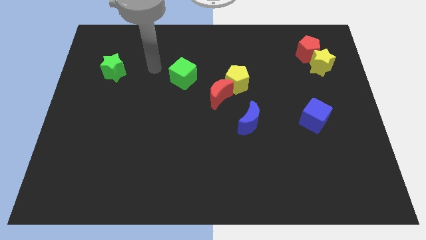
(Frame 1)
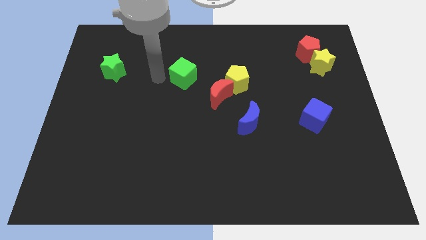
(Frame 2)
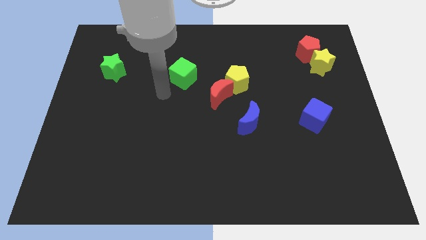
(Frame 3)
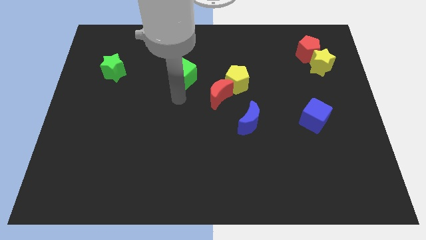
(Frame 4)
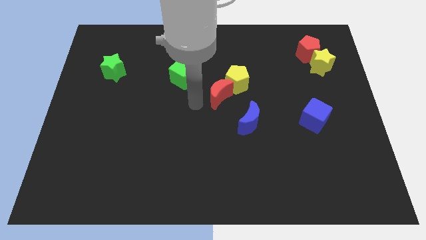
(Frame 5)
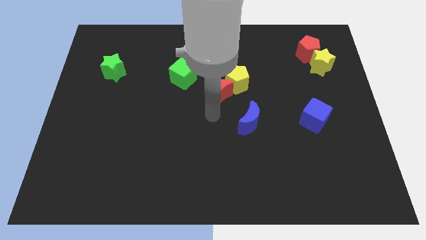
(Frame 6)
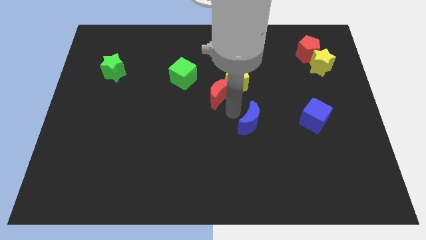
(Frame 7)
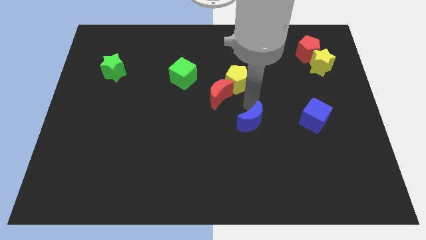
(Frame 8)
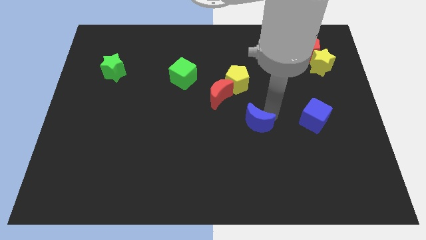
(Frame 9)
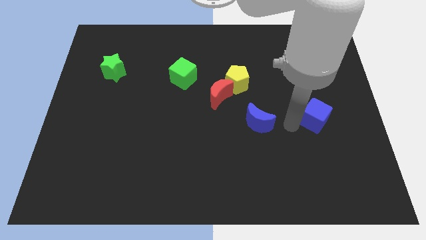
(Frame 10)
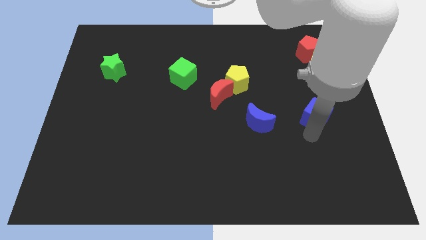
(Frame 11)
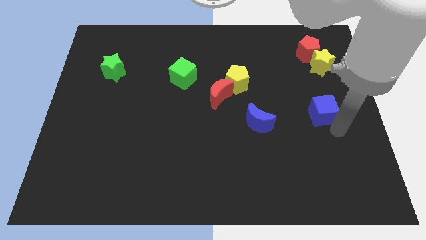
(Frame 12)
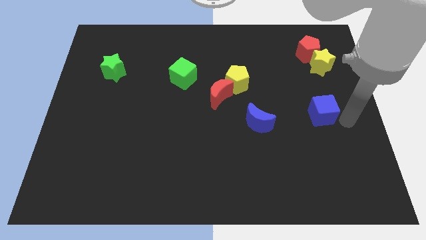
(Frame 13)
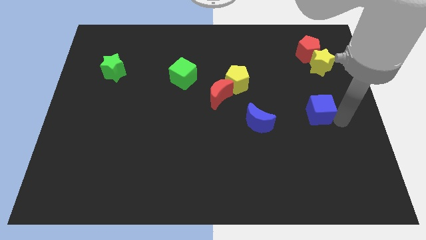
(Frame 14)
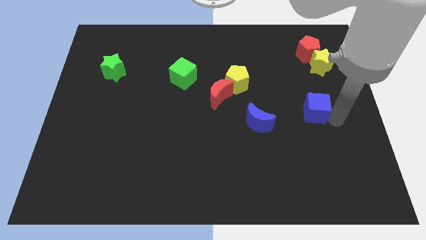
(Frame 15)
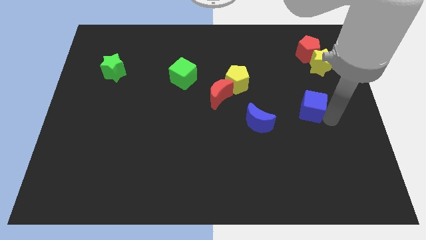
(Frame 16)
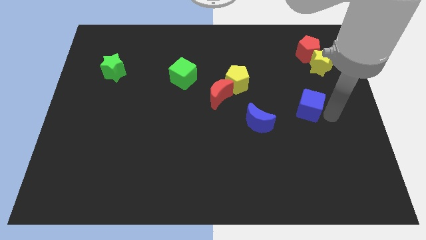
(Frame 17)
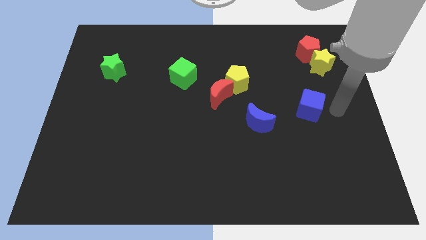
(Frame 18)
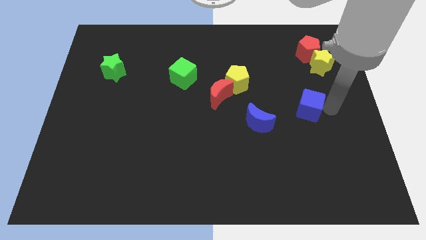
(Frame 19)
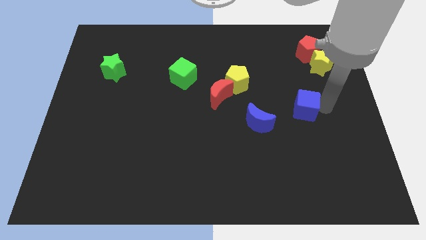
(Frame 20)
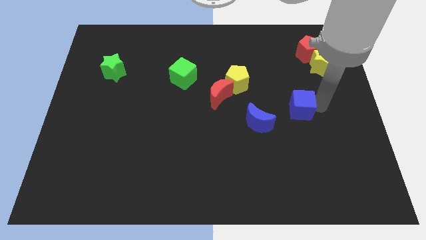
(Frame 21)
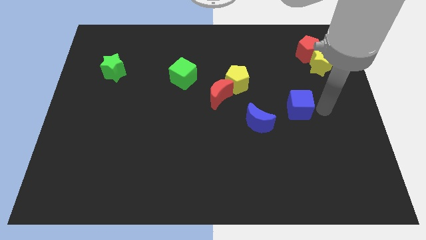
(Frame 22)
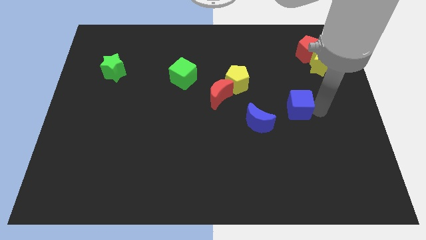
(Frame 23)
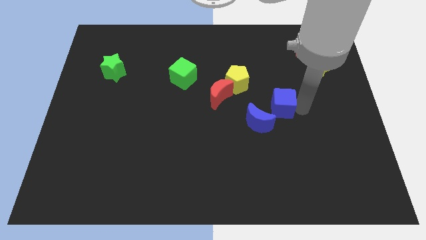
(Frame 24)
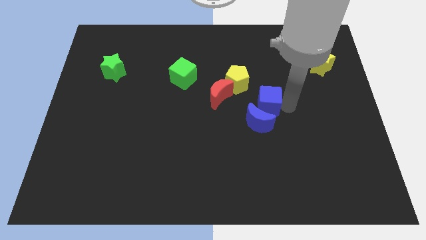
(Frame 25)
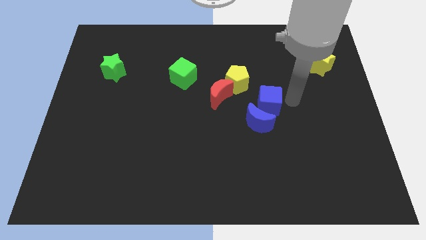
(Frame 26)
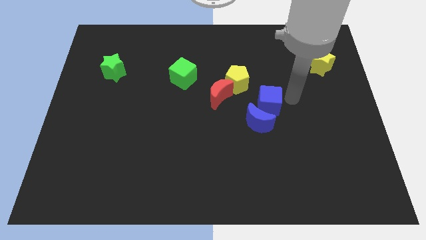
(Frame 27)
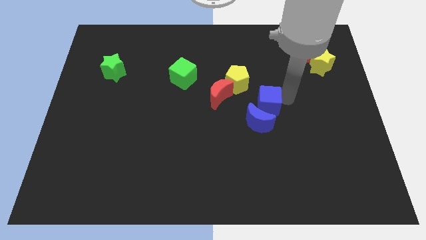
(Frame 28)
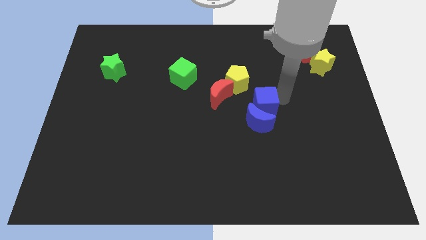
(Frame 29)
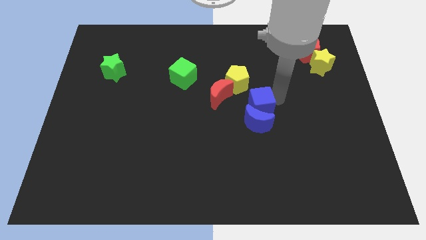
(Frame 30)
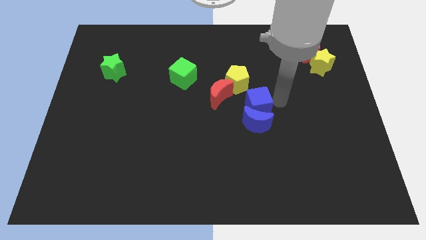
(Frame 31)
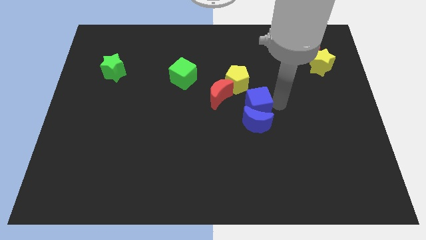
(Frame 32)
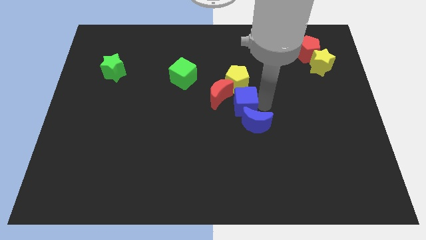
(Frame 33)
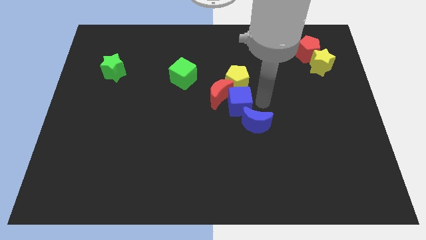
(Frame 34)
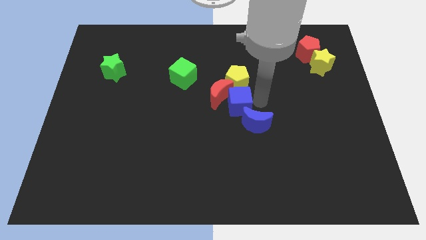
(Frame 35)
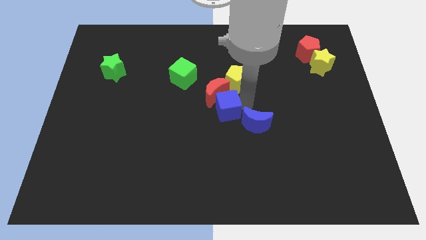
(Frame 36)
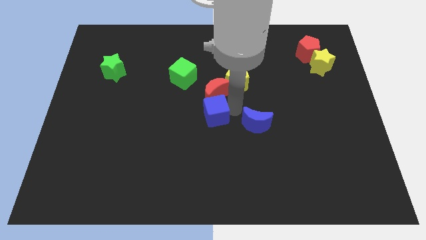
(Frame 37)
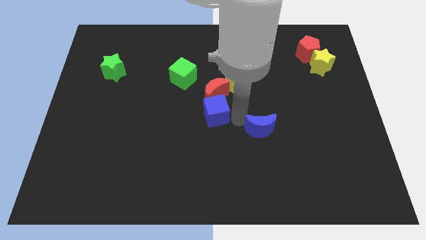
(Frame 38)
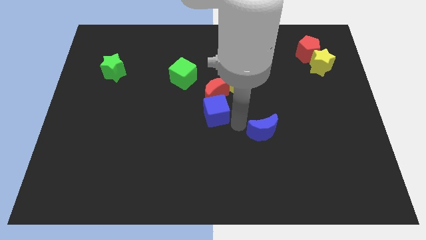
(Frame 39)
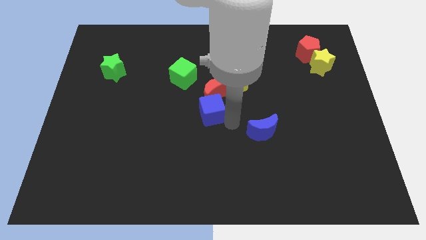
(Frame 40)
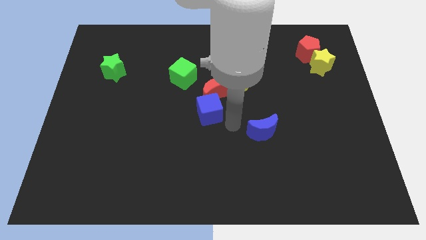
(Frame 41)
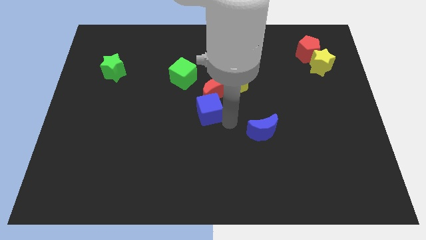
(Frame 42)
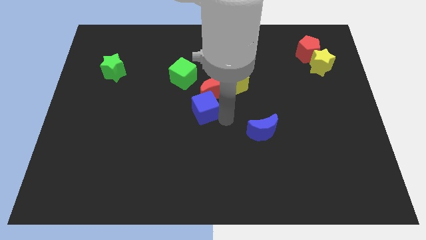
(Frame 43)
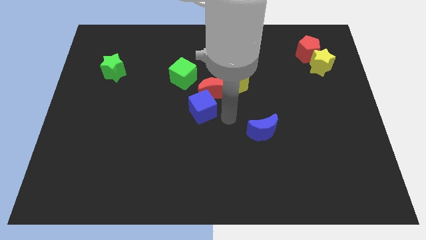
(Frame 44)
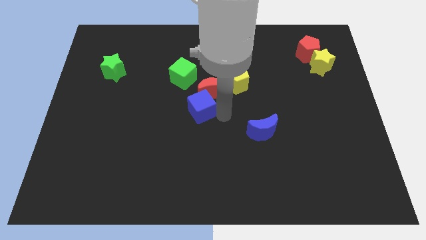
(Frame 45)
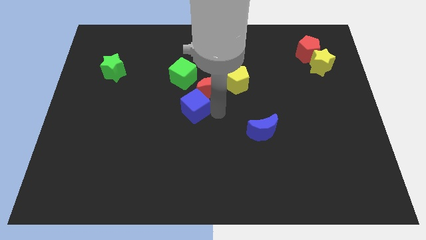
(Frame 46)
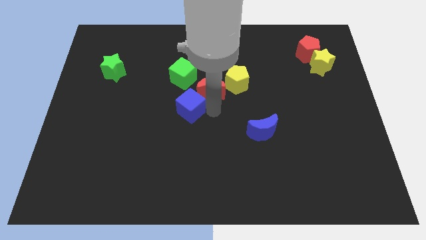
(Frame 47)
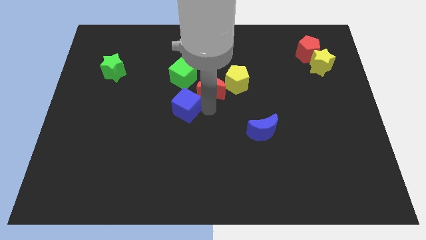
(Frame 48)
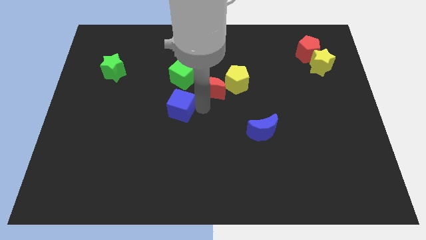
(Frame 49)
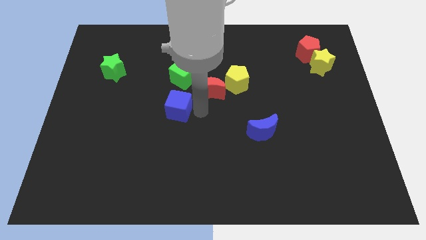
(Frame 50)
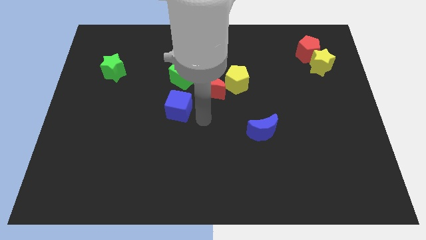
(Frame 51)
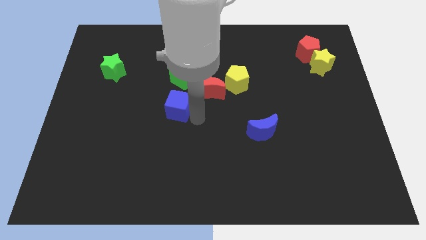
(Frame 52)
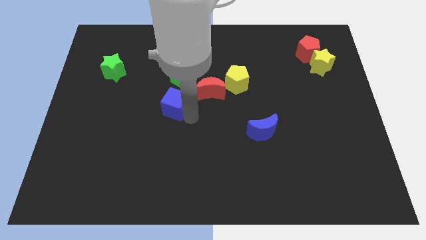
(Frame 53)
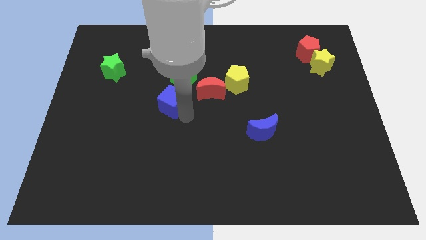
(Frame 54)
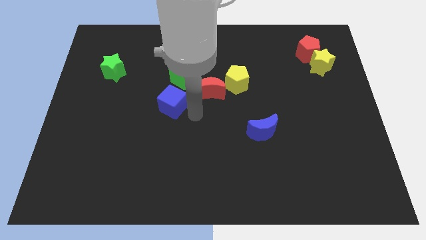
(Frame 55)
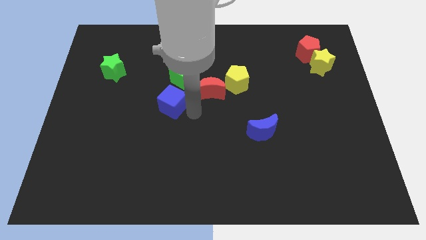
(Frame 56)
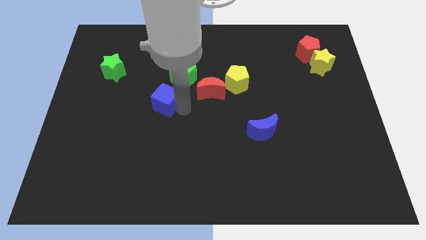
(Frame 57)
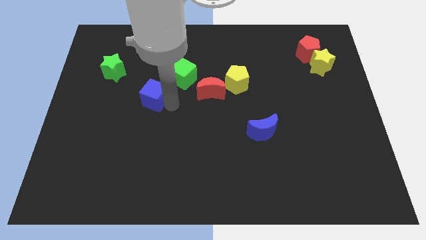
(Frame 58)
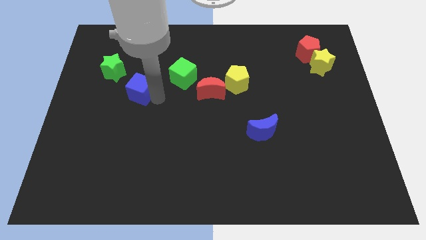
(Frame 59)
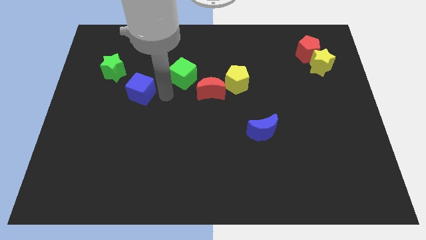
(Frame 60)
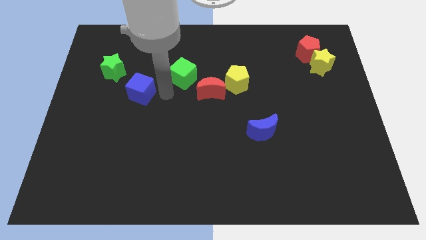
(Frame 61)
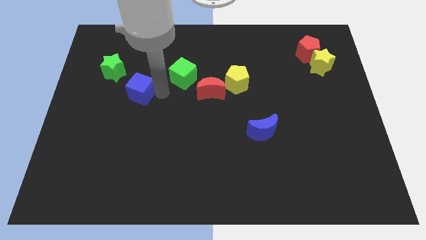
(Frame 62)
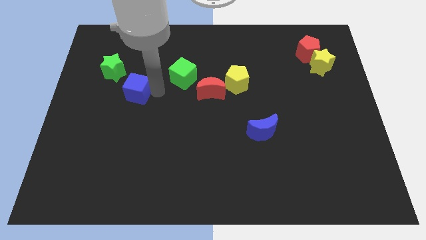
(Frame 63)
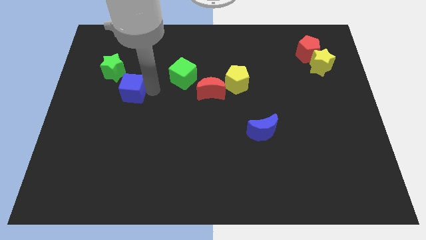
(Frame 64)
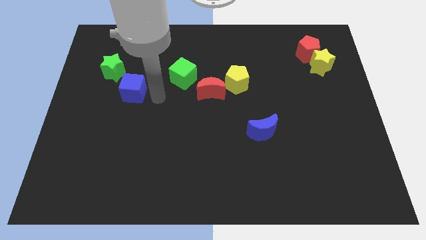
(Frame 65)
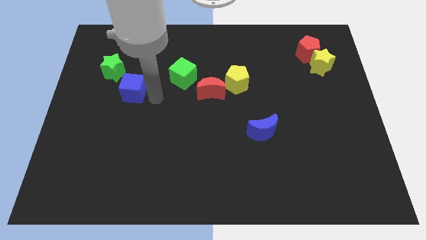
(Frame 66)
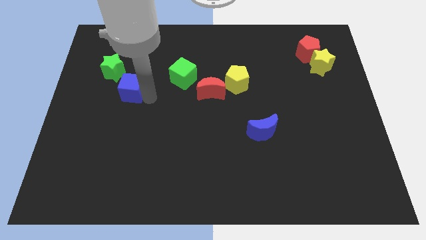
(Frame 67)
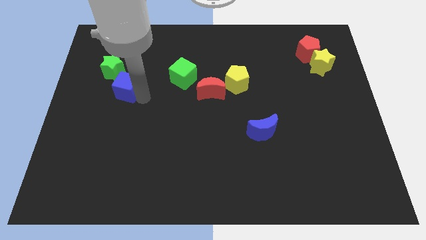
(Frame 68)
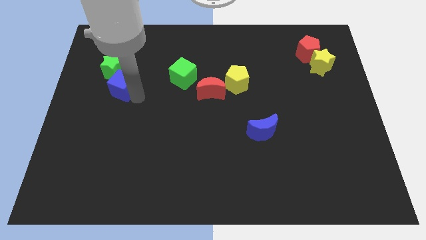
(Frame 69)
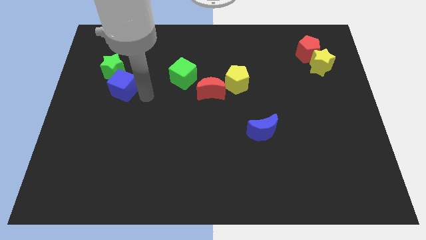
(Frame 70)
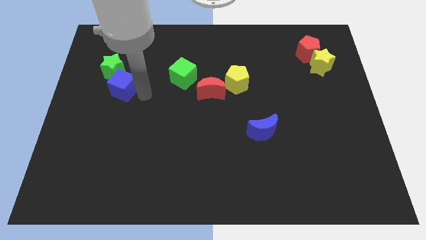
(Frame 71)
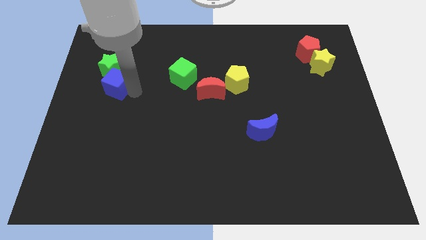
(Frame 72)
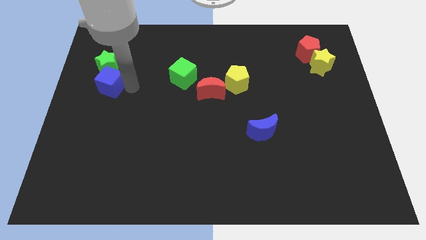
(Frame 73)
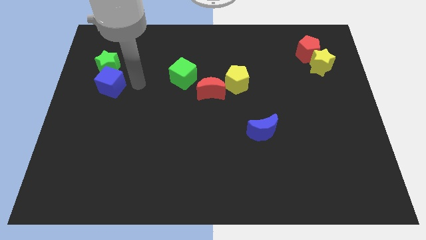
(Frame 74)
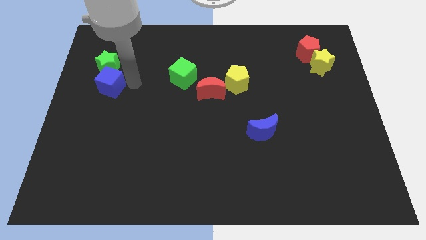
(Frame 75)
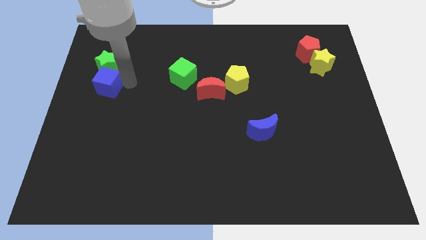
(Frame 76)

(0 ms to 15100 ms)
put the blue cube to the center left
